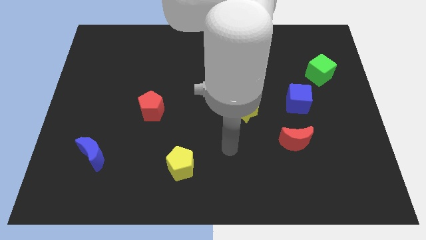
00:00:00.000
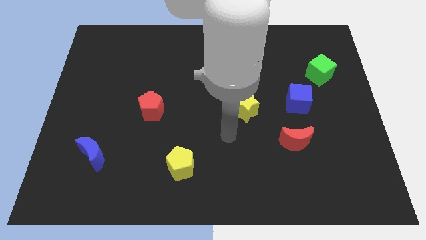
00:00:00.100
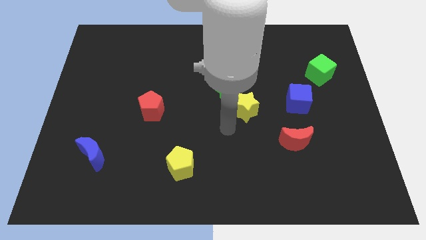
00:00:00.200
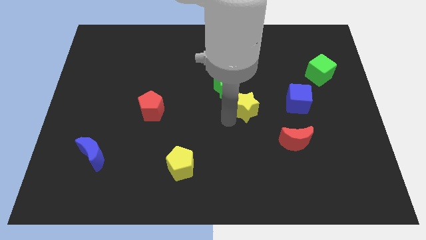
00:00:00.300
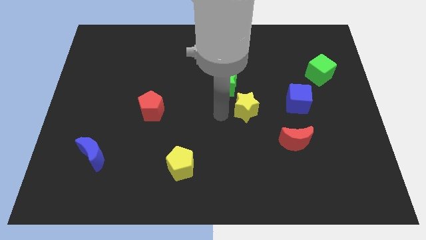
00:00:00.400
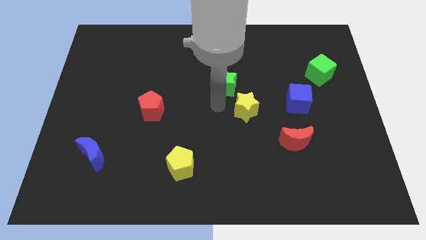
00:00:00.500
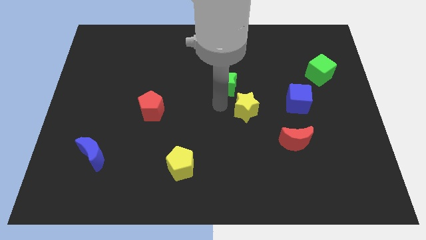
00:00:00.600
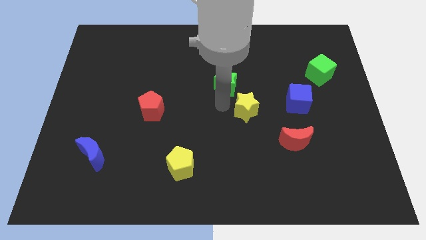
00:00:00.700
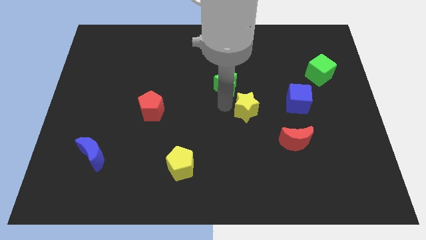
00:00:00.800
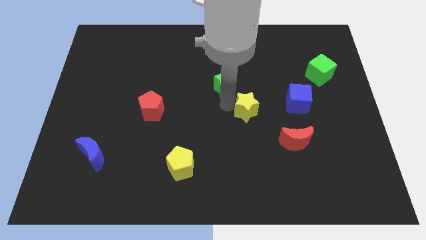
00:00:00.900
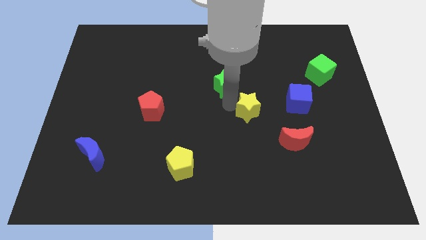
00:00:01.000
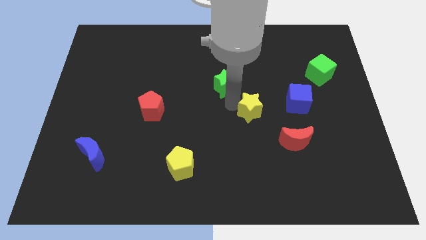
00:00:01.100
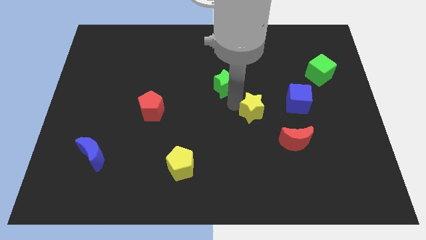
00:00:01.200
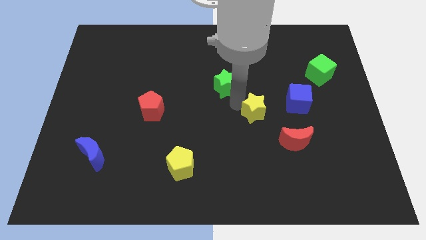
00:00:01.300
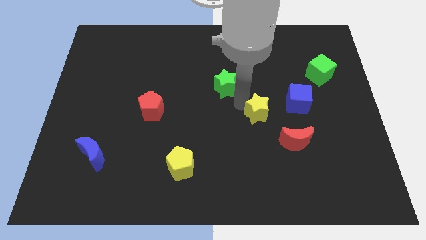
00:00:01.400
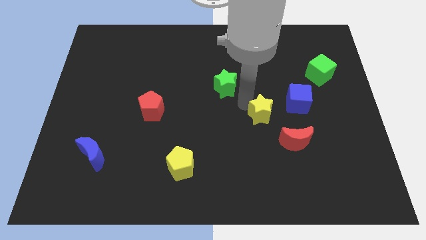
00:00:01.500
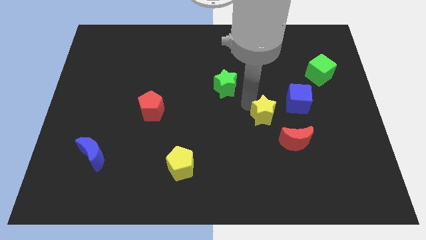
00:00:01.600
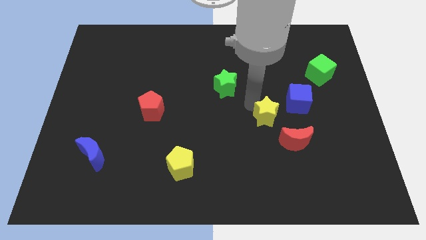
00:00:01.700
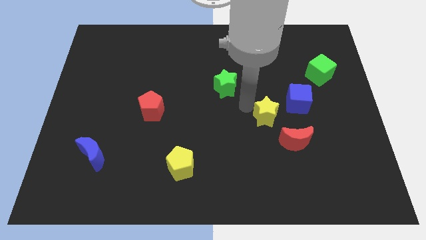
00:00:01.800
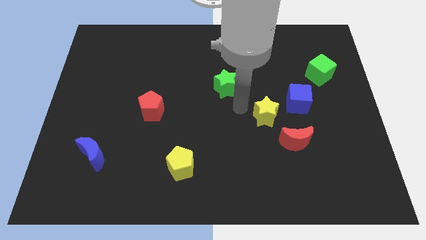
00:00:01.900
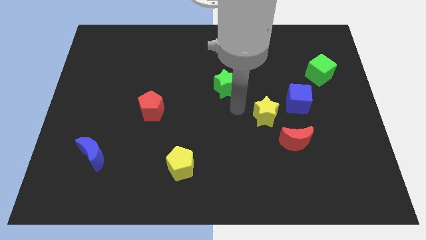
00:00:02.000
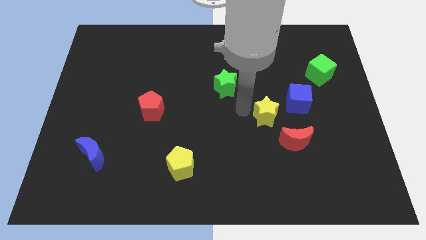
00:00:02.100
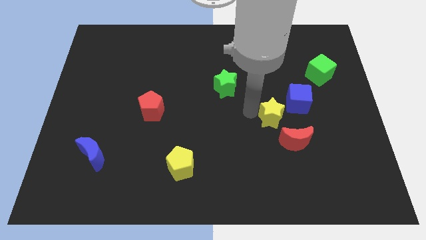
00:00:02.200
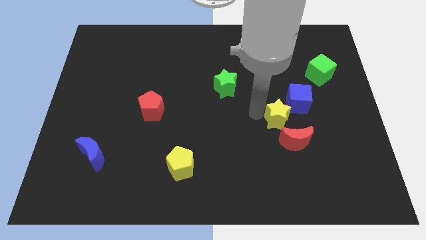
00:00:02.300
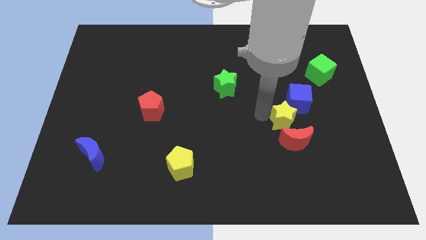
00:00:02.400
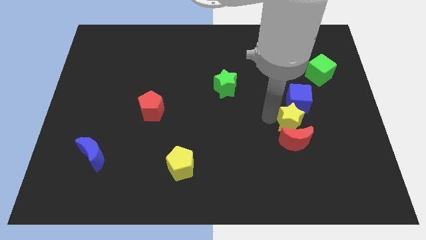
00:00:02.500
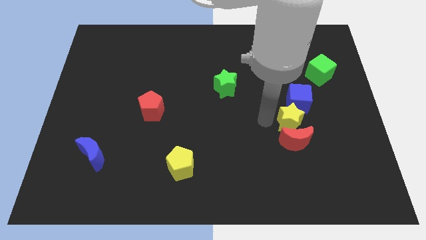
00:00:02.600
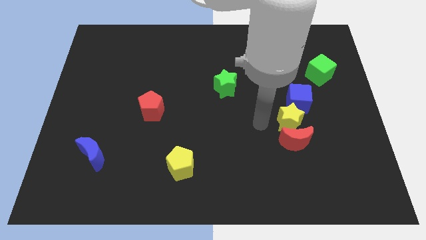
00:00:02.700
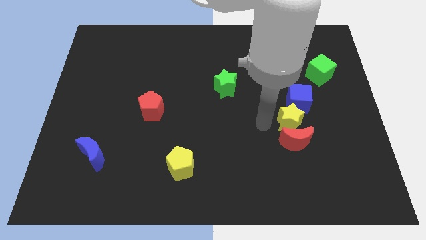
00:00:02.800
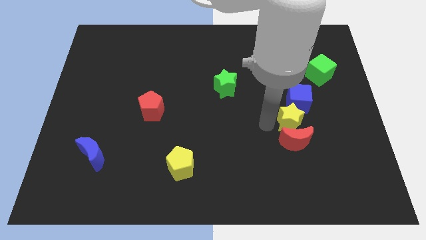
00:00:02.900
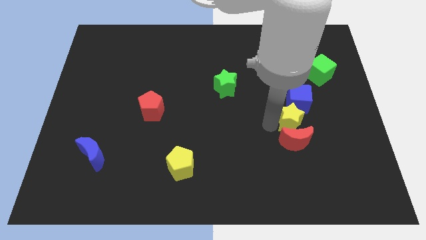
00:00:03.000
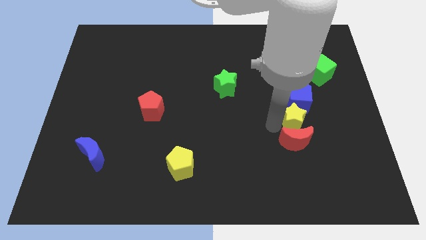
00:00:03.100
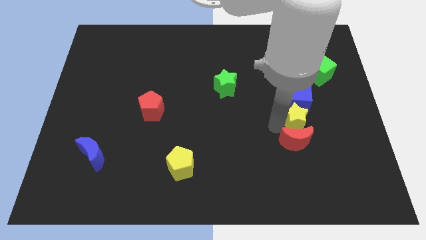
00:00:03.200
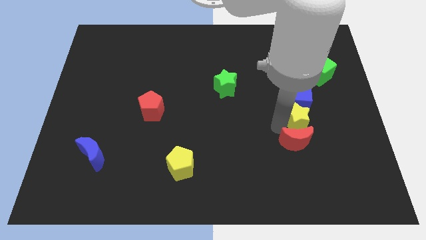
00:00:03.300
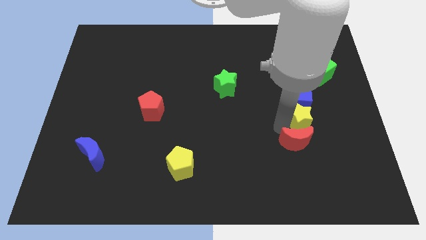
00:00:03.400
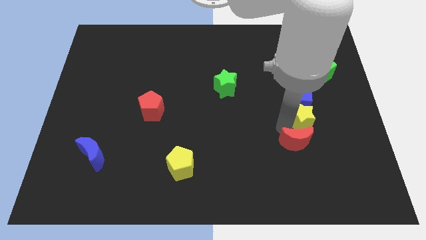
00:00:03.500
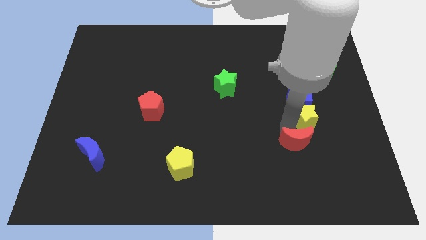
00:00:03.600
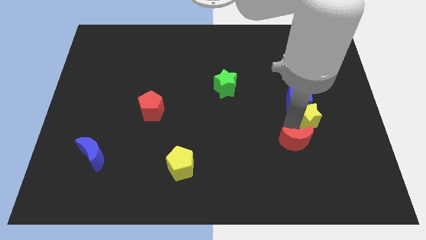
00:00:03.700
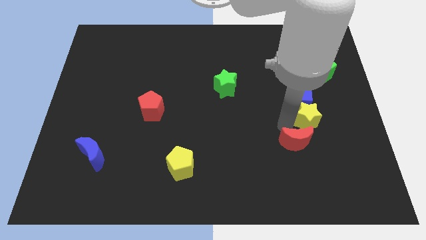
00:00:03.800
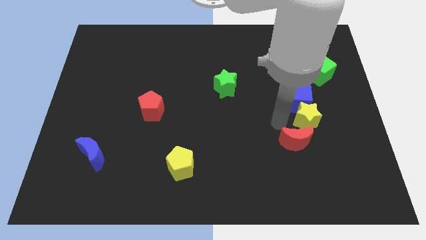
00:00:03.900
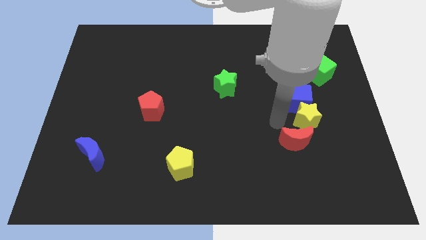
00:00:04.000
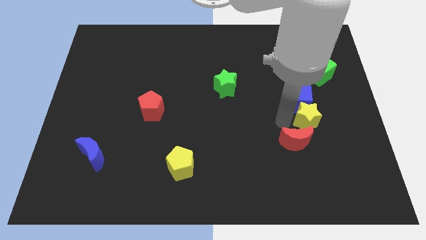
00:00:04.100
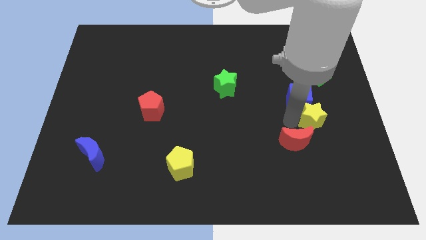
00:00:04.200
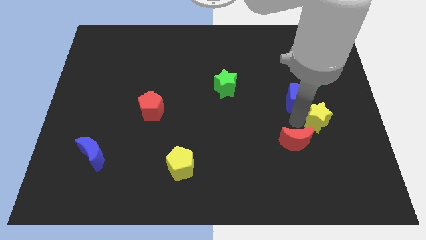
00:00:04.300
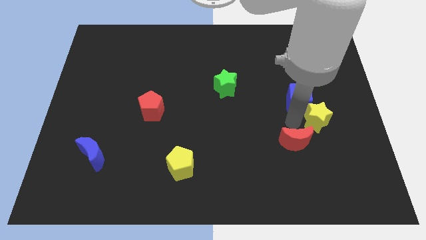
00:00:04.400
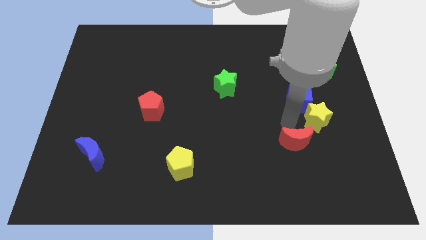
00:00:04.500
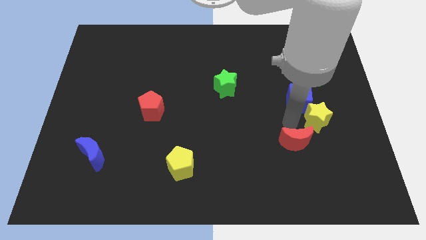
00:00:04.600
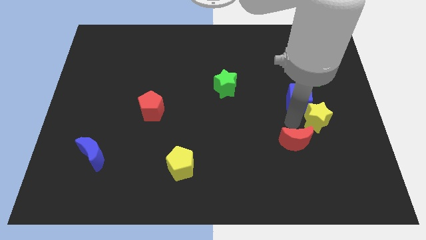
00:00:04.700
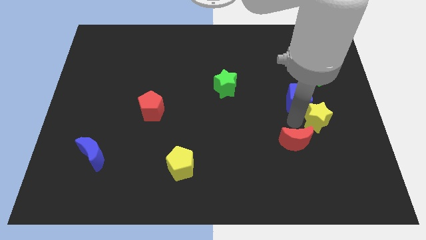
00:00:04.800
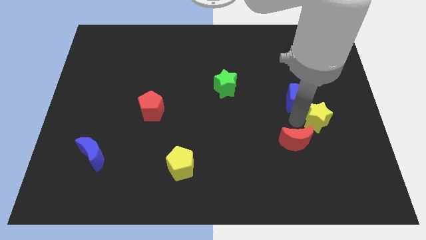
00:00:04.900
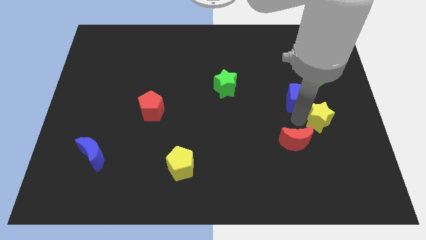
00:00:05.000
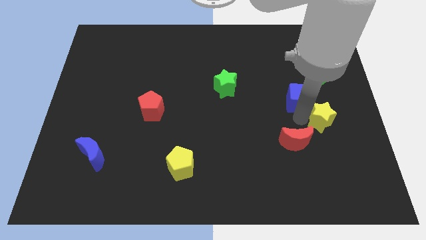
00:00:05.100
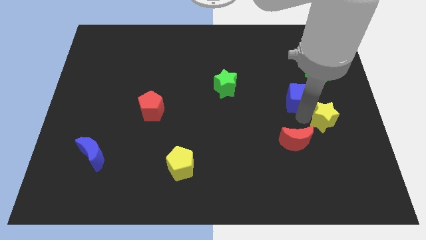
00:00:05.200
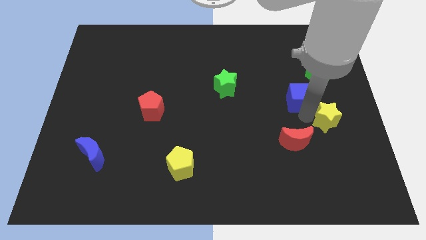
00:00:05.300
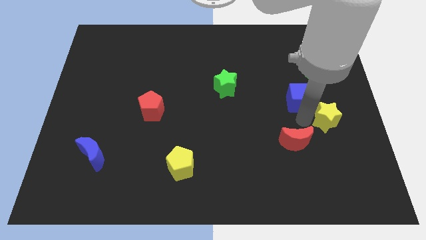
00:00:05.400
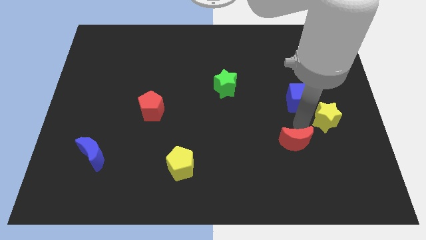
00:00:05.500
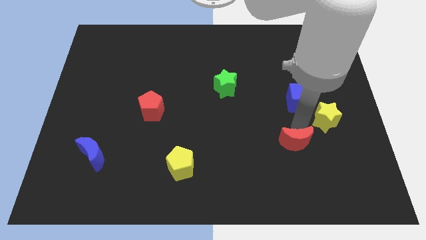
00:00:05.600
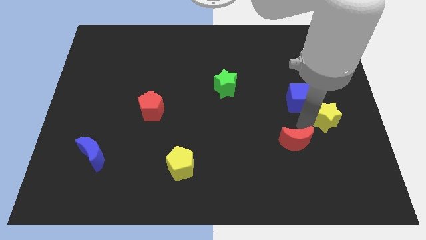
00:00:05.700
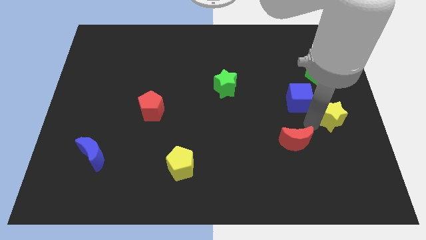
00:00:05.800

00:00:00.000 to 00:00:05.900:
push the yellow star to the center right
